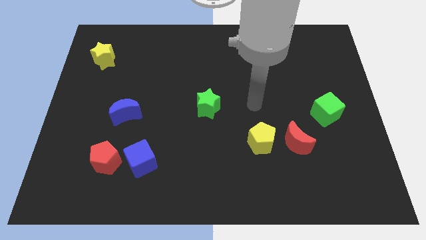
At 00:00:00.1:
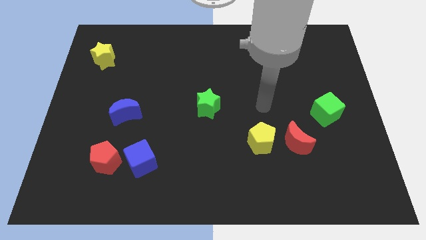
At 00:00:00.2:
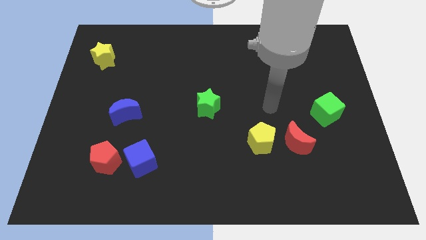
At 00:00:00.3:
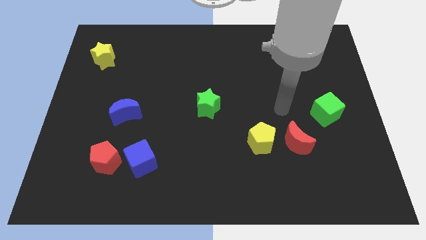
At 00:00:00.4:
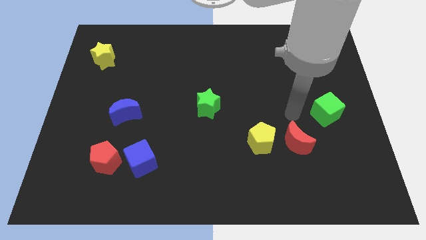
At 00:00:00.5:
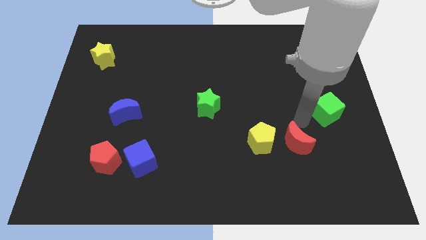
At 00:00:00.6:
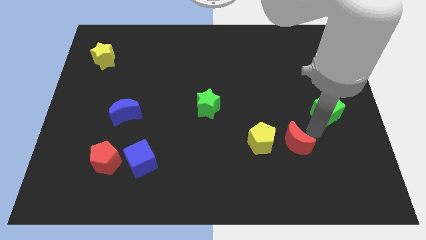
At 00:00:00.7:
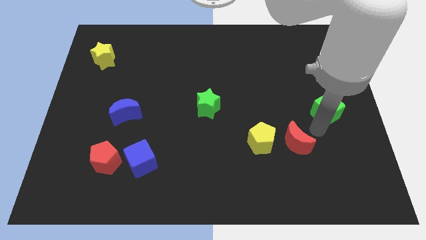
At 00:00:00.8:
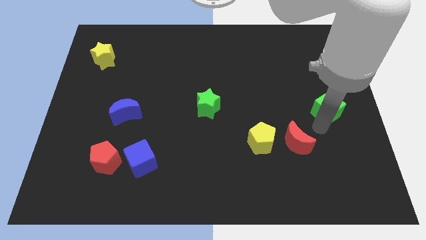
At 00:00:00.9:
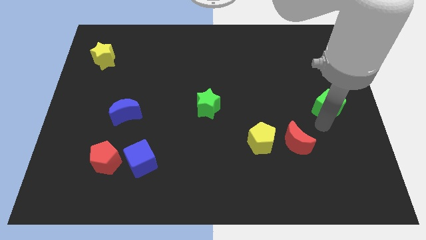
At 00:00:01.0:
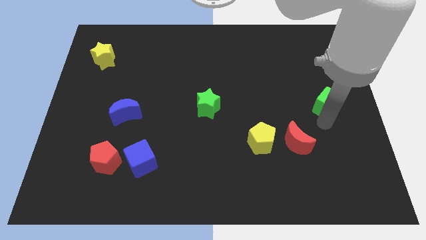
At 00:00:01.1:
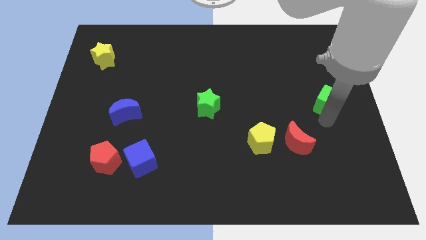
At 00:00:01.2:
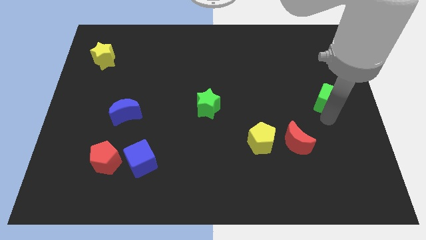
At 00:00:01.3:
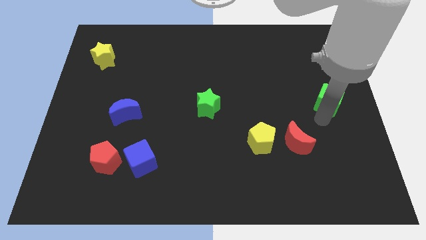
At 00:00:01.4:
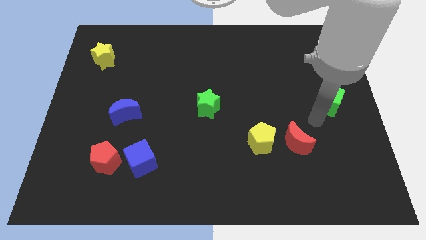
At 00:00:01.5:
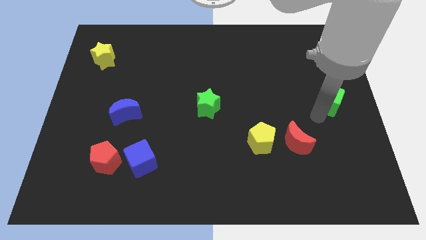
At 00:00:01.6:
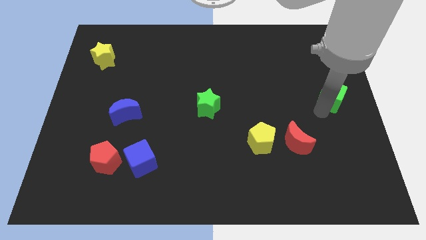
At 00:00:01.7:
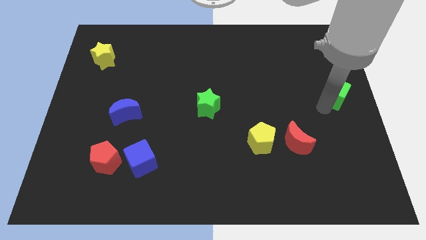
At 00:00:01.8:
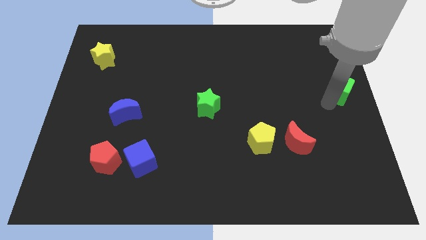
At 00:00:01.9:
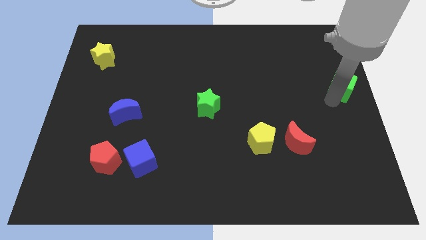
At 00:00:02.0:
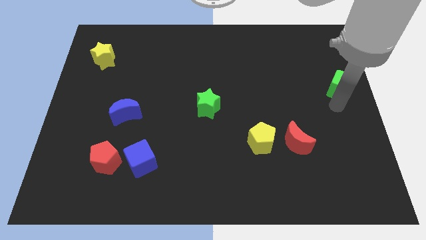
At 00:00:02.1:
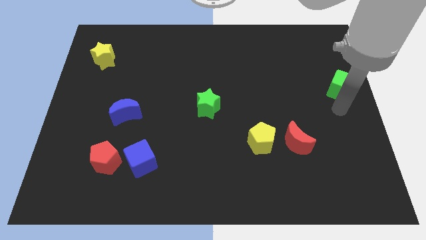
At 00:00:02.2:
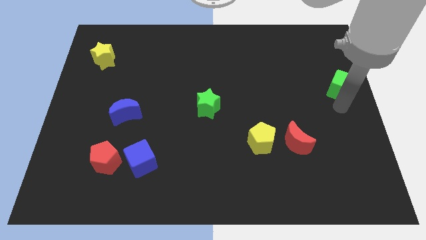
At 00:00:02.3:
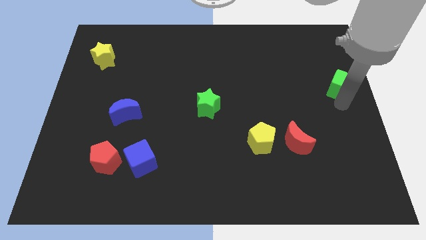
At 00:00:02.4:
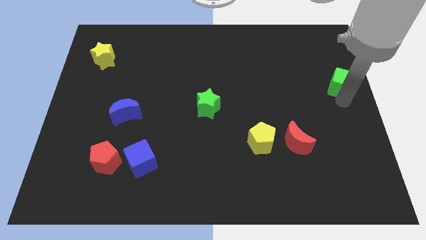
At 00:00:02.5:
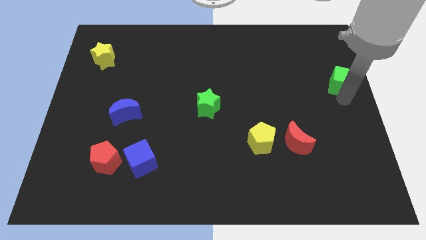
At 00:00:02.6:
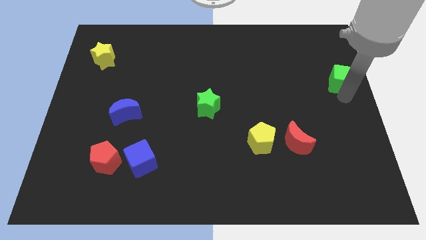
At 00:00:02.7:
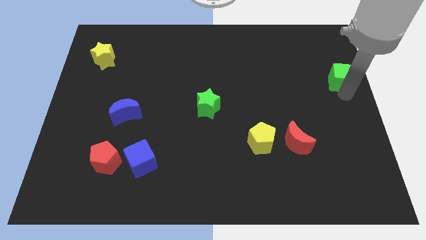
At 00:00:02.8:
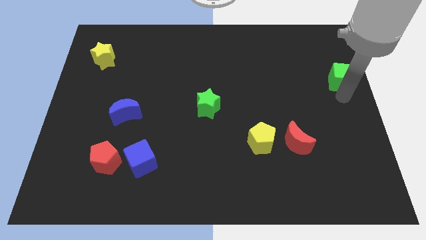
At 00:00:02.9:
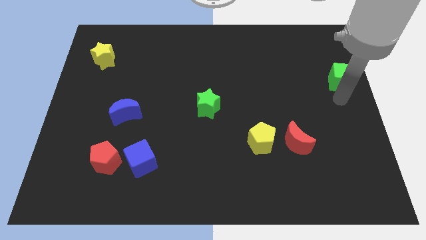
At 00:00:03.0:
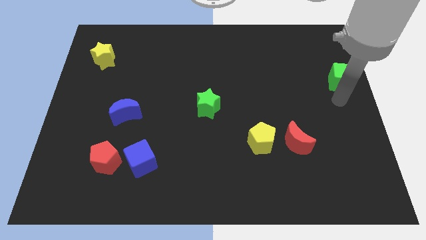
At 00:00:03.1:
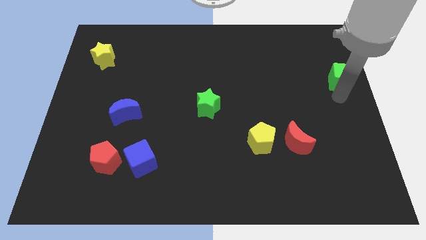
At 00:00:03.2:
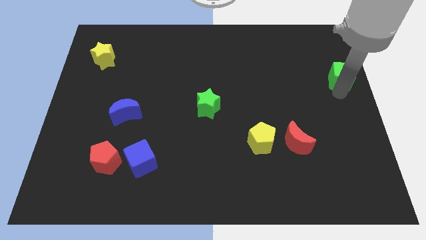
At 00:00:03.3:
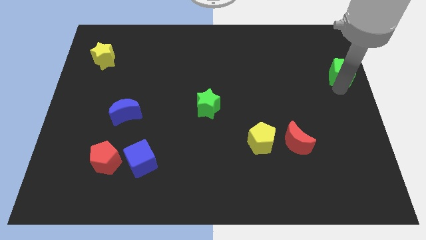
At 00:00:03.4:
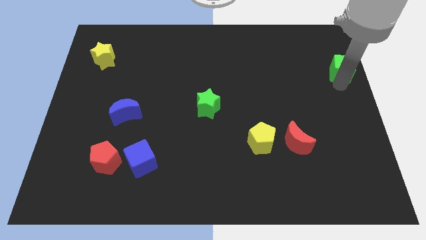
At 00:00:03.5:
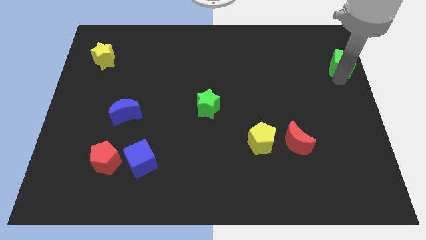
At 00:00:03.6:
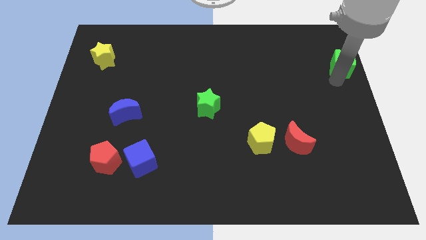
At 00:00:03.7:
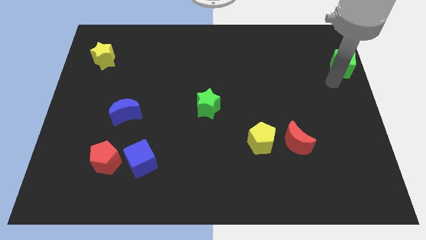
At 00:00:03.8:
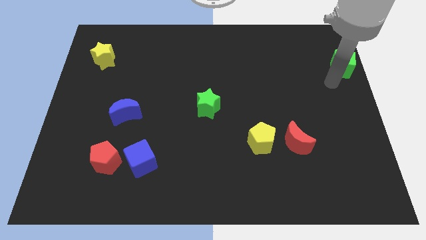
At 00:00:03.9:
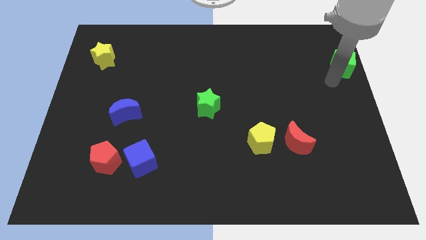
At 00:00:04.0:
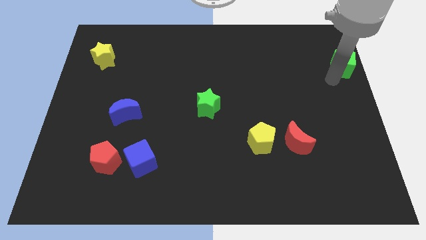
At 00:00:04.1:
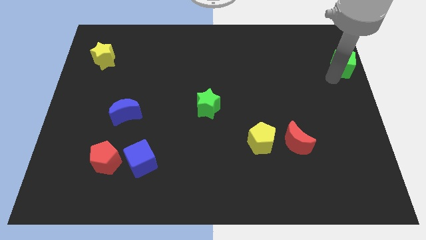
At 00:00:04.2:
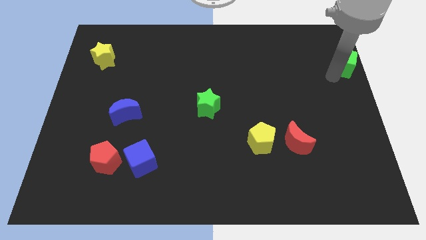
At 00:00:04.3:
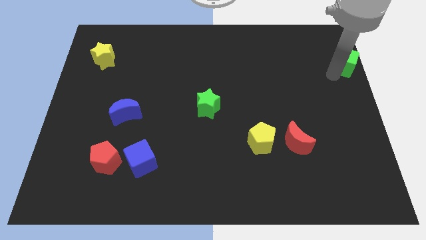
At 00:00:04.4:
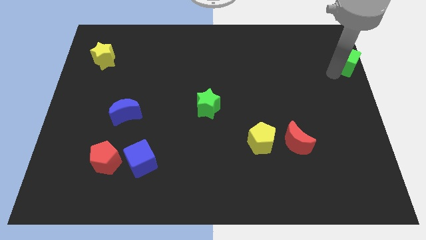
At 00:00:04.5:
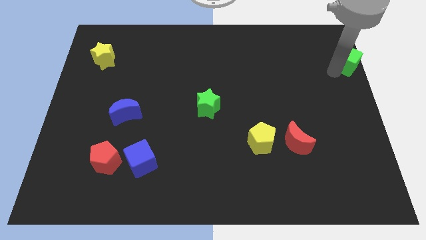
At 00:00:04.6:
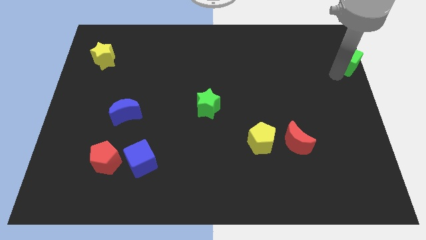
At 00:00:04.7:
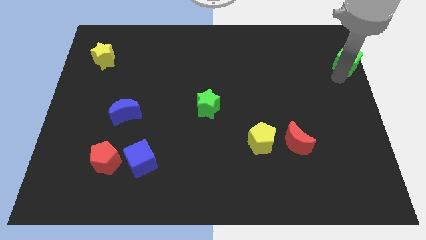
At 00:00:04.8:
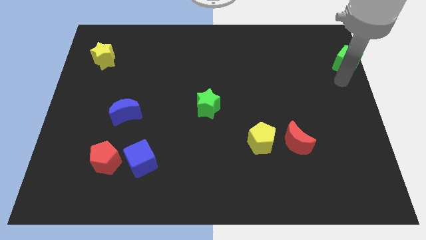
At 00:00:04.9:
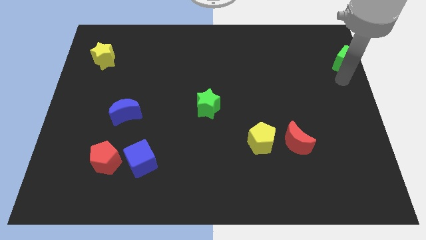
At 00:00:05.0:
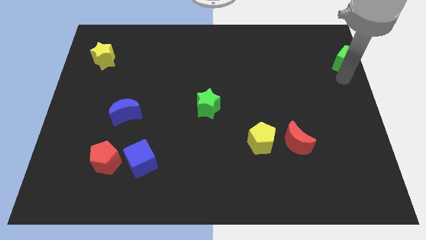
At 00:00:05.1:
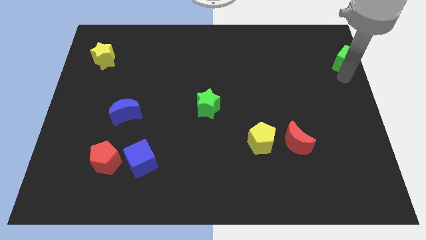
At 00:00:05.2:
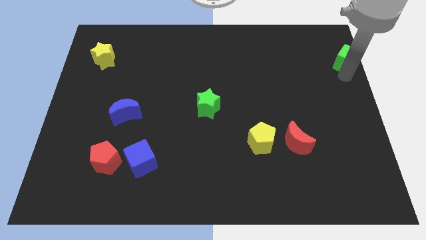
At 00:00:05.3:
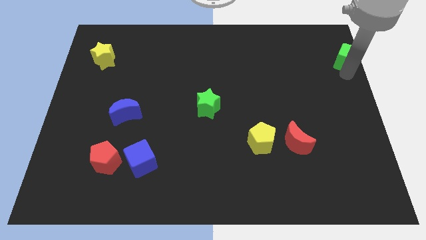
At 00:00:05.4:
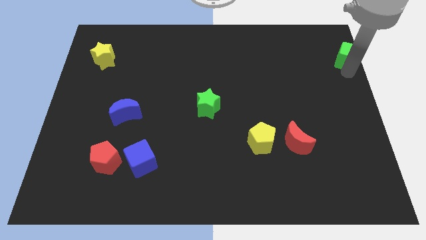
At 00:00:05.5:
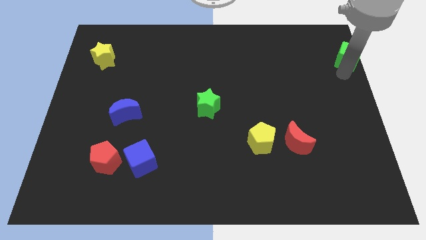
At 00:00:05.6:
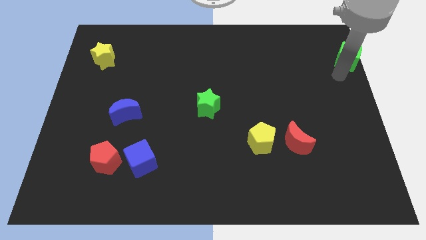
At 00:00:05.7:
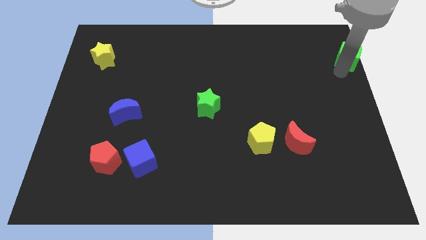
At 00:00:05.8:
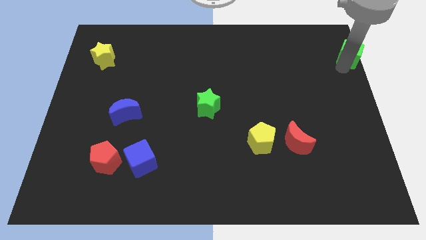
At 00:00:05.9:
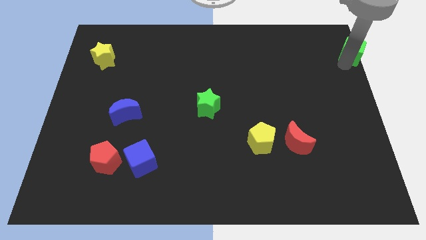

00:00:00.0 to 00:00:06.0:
move the green cube to the top right

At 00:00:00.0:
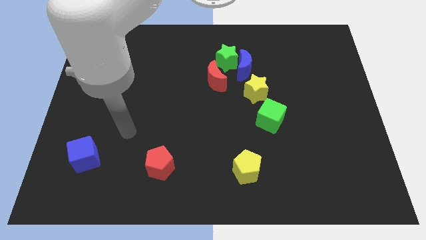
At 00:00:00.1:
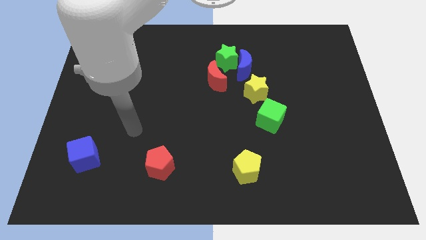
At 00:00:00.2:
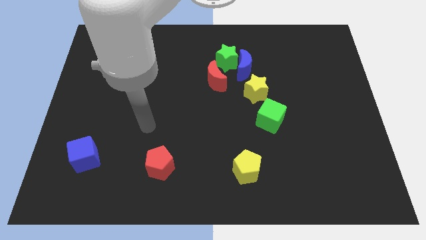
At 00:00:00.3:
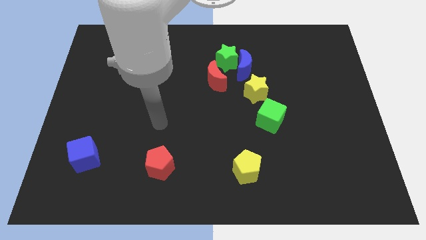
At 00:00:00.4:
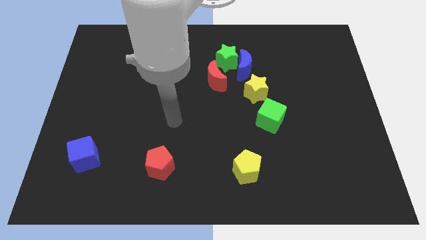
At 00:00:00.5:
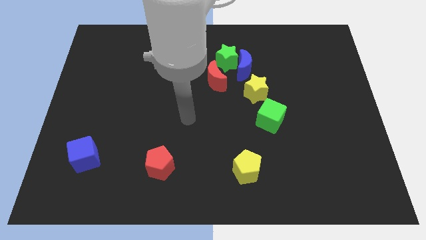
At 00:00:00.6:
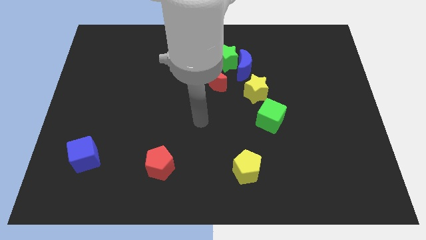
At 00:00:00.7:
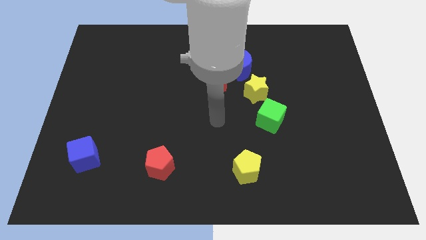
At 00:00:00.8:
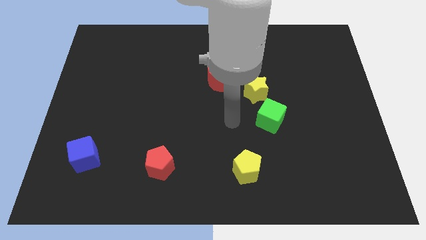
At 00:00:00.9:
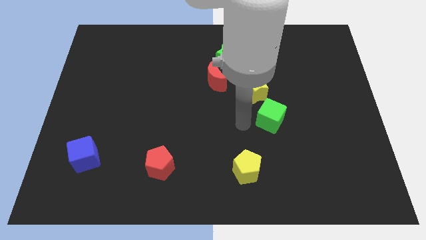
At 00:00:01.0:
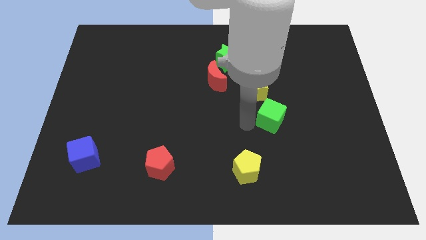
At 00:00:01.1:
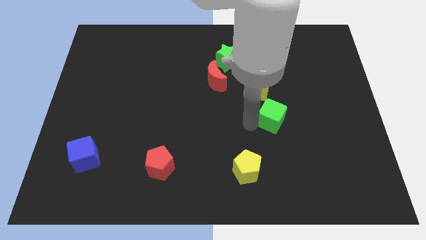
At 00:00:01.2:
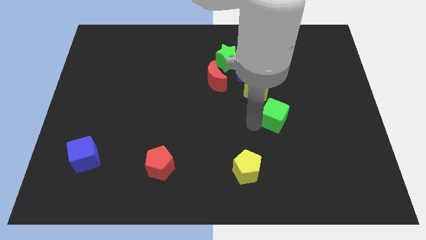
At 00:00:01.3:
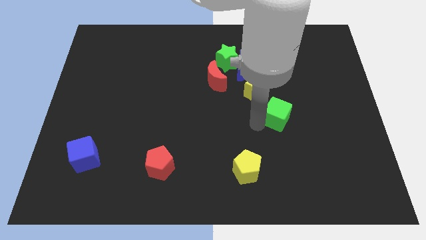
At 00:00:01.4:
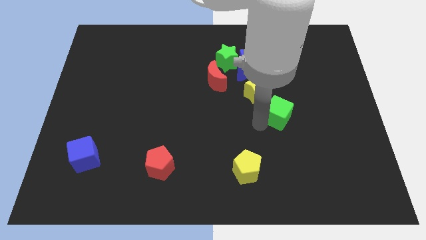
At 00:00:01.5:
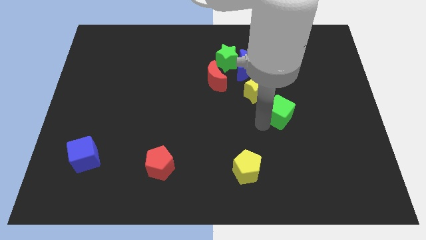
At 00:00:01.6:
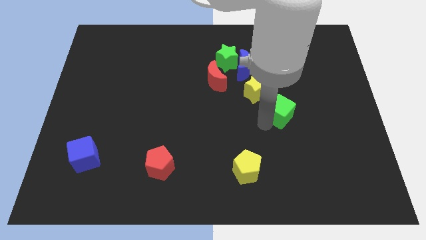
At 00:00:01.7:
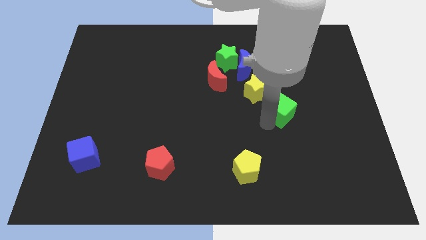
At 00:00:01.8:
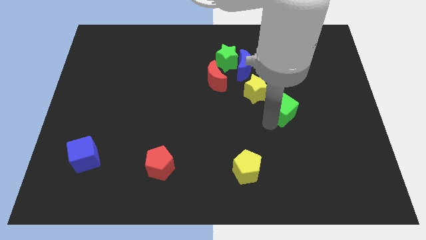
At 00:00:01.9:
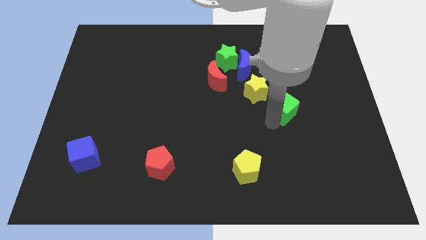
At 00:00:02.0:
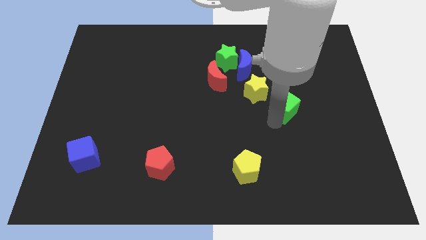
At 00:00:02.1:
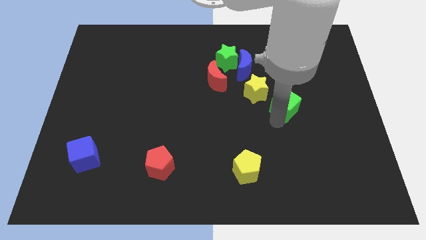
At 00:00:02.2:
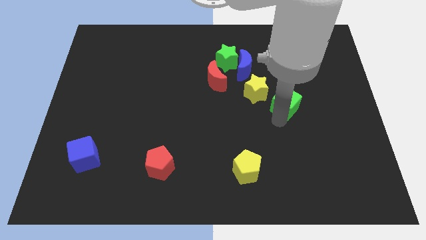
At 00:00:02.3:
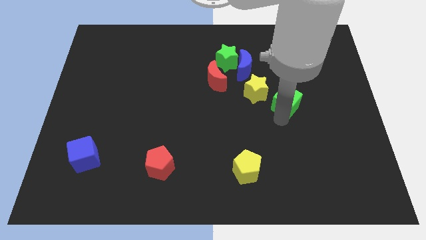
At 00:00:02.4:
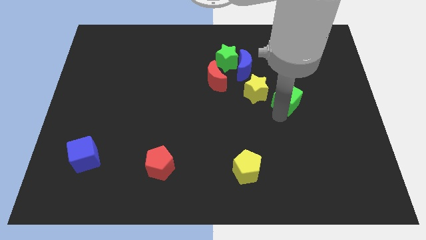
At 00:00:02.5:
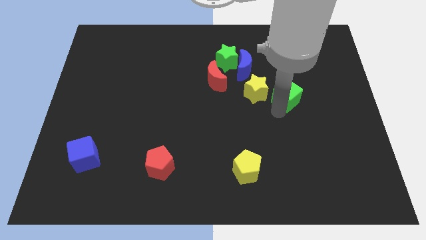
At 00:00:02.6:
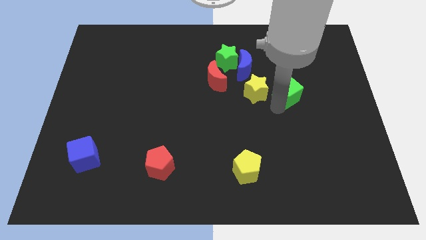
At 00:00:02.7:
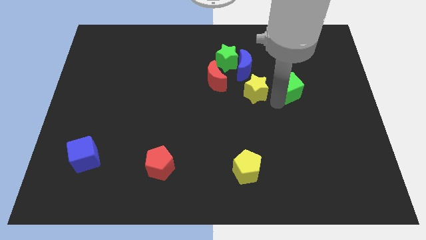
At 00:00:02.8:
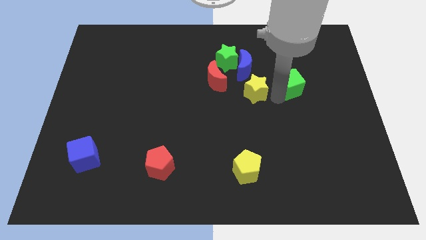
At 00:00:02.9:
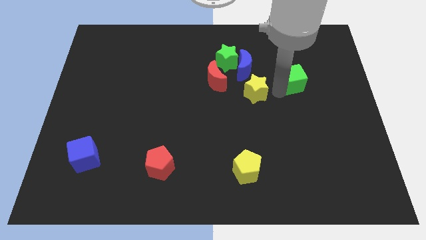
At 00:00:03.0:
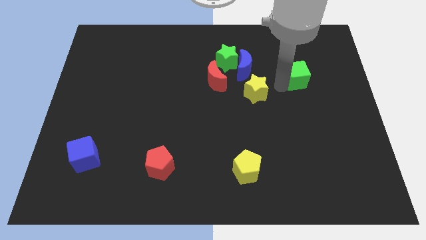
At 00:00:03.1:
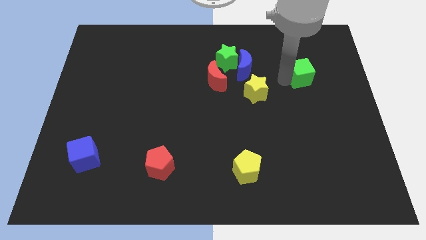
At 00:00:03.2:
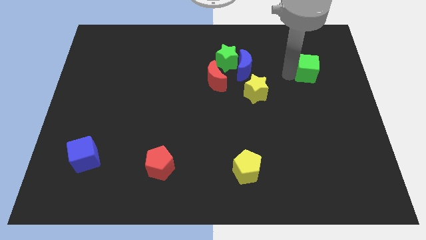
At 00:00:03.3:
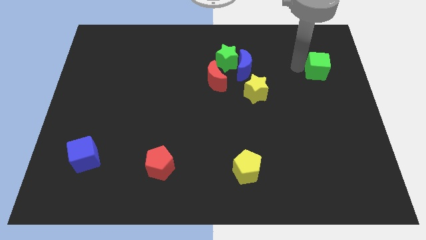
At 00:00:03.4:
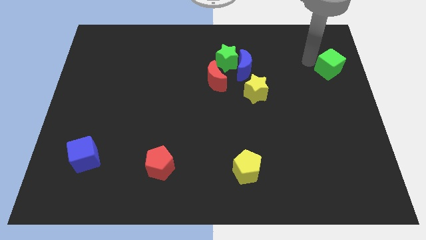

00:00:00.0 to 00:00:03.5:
put the green cube to the right side
